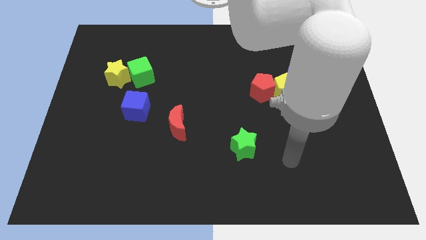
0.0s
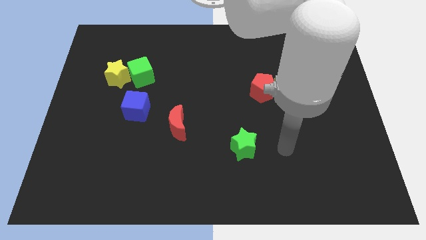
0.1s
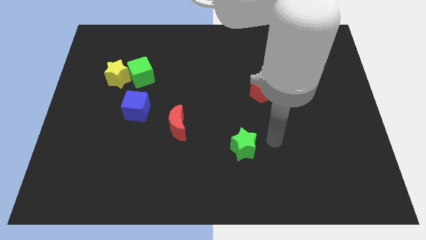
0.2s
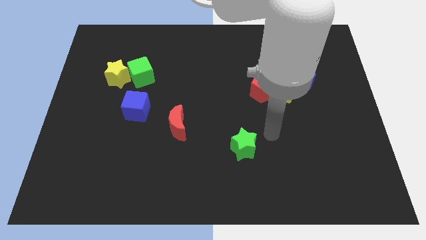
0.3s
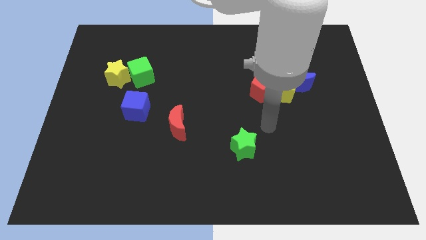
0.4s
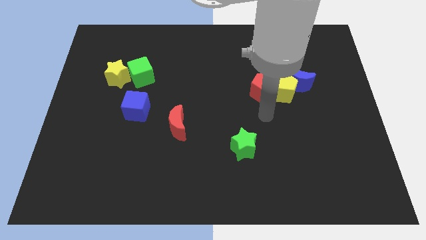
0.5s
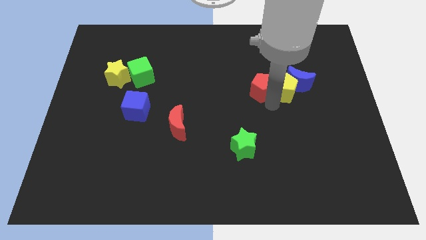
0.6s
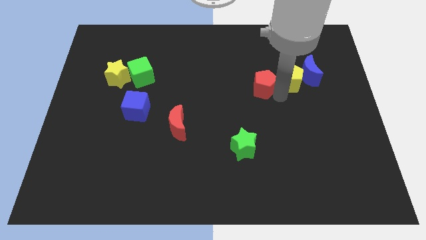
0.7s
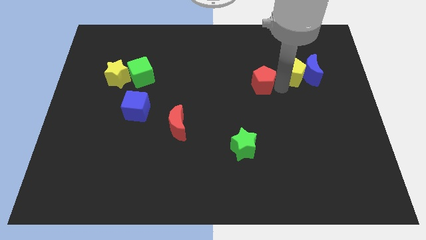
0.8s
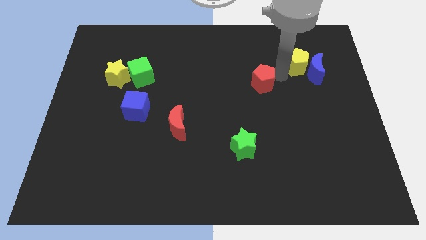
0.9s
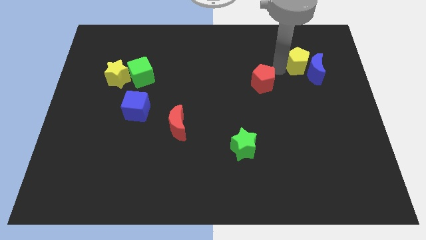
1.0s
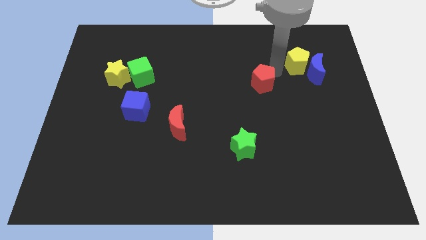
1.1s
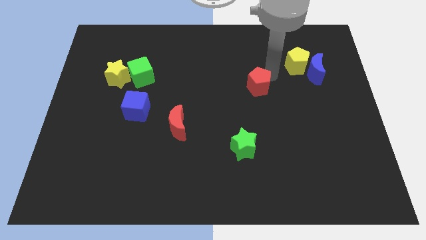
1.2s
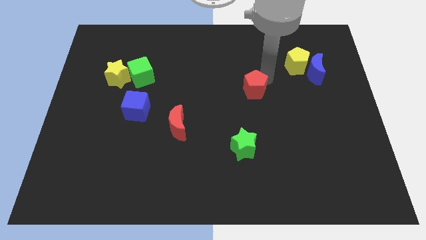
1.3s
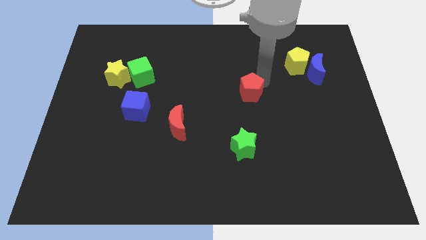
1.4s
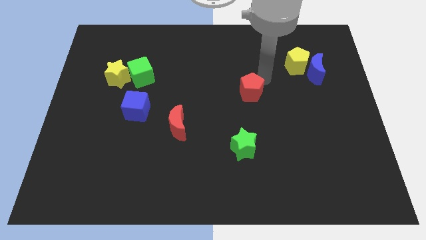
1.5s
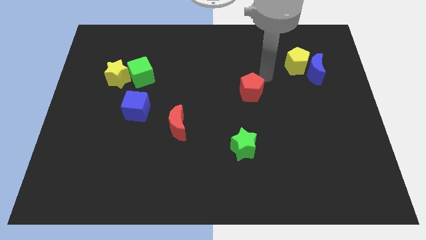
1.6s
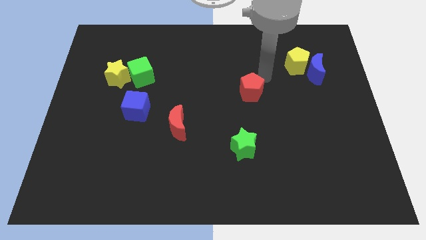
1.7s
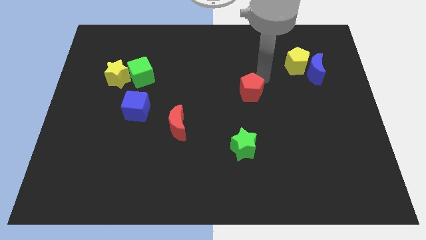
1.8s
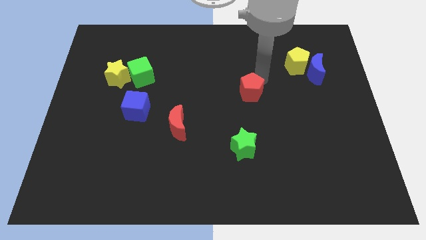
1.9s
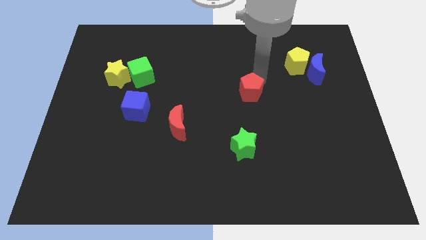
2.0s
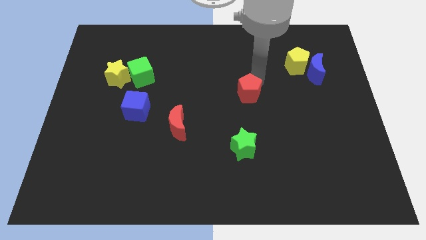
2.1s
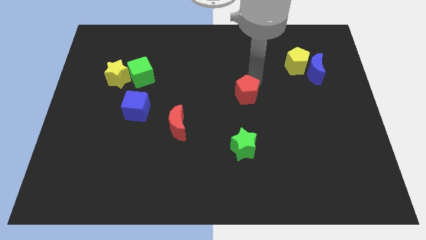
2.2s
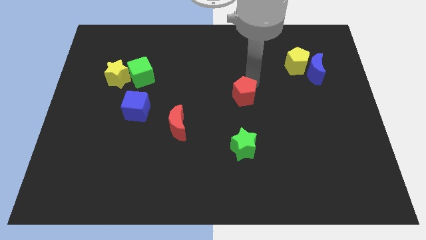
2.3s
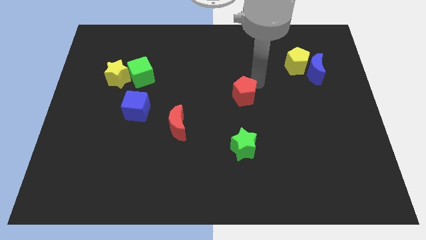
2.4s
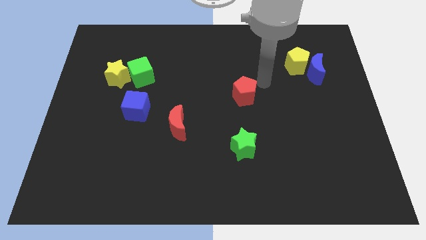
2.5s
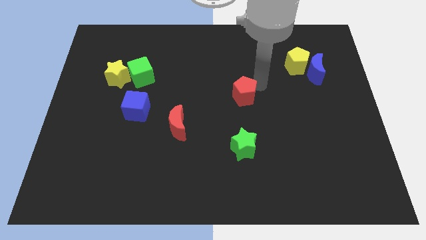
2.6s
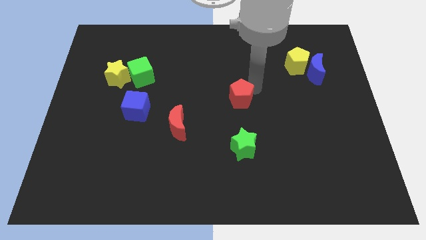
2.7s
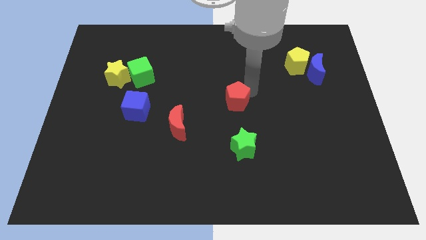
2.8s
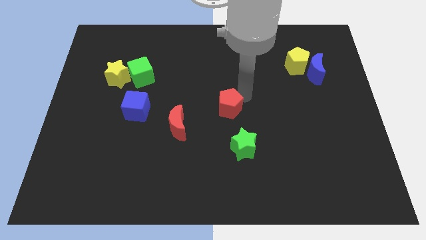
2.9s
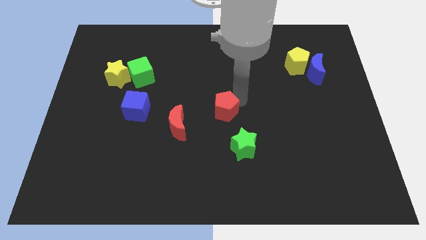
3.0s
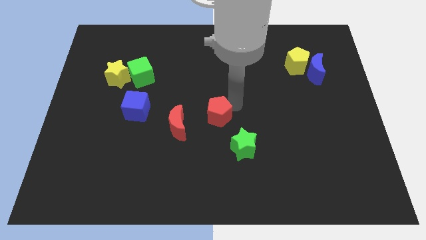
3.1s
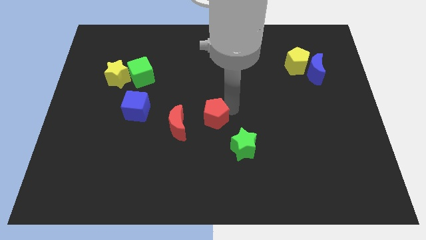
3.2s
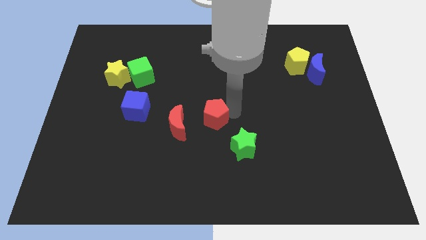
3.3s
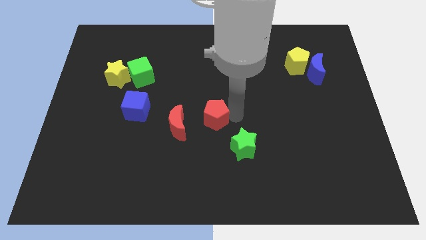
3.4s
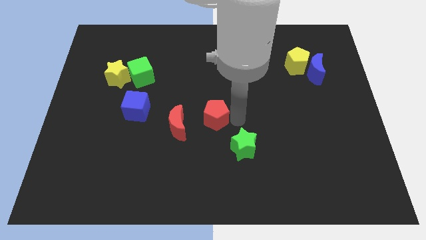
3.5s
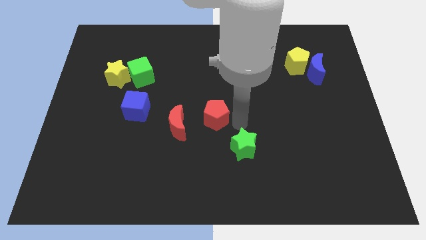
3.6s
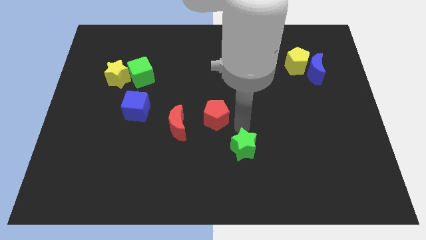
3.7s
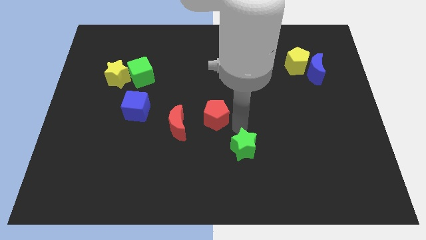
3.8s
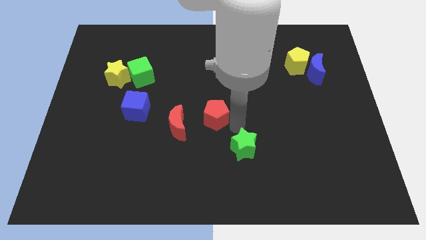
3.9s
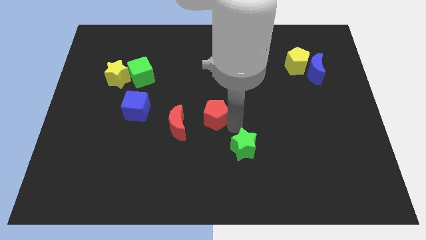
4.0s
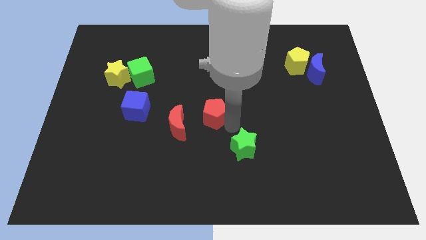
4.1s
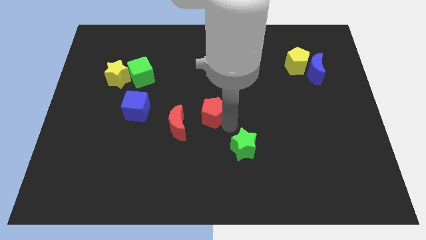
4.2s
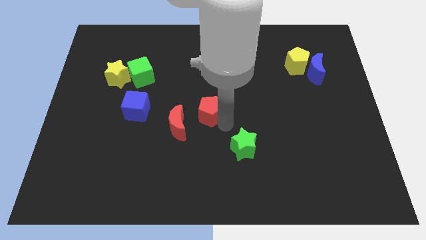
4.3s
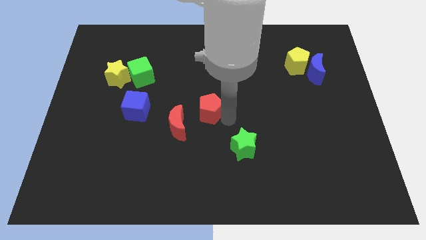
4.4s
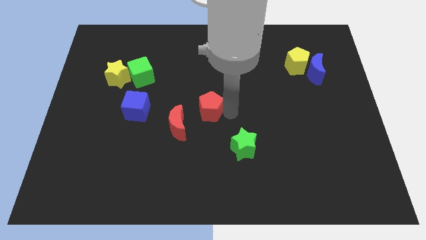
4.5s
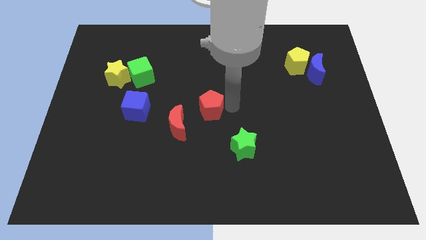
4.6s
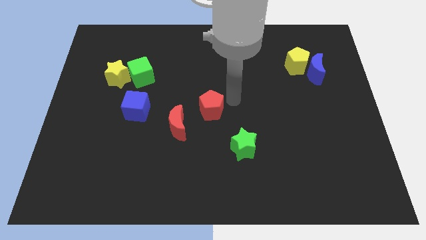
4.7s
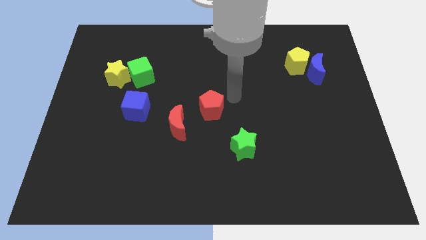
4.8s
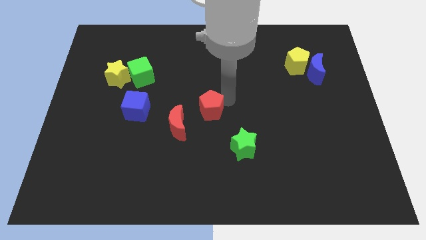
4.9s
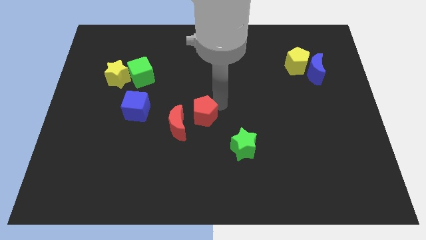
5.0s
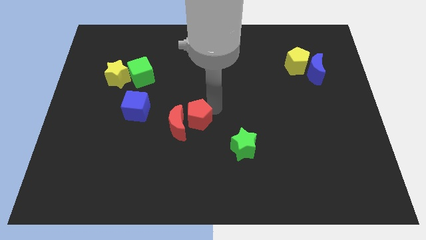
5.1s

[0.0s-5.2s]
slide the red pentagon to the red moon

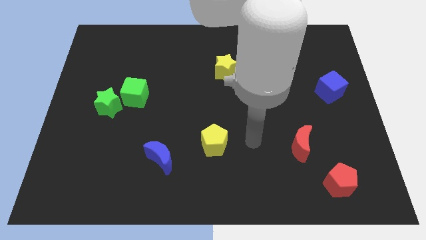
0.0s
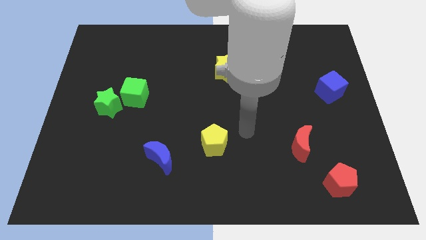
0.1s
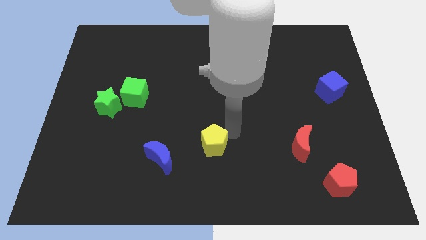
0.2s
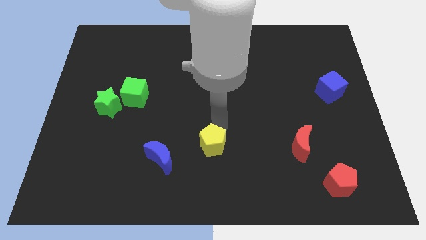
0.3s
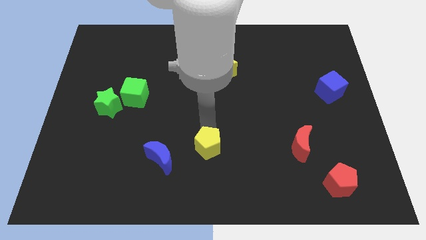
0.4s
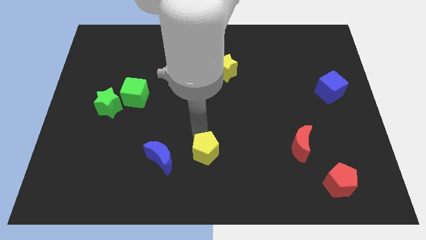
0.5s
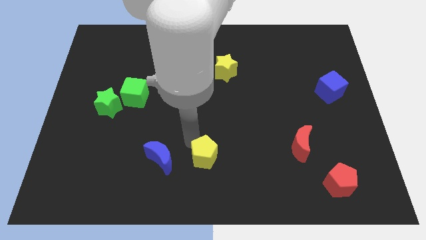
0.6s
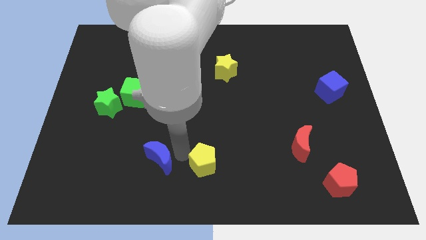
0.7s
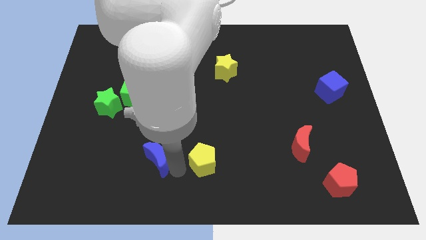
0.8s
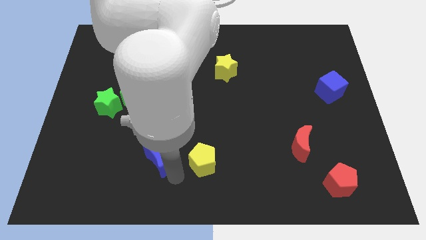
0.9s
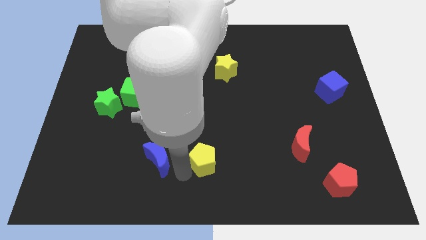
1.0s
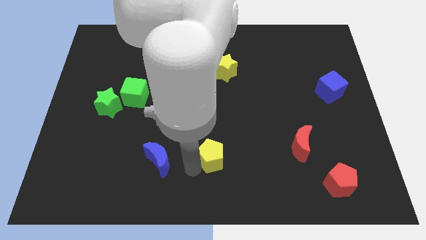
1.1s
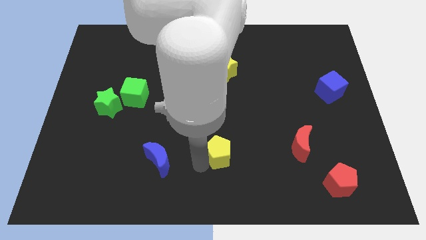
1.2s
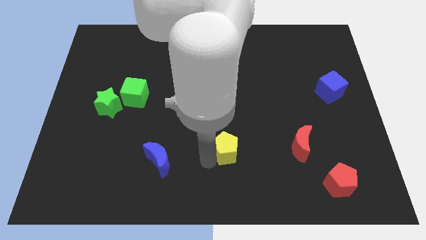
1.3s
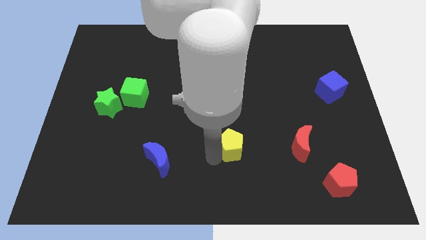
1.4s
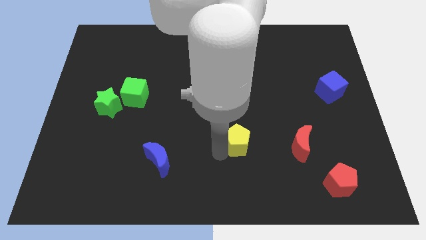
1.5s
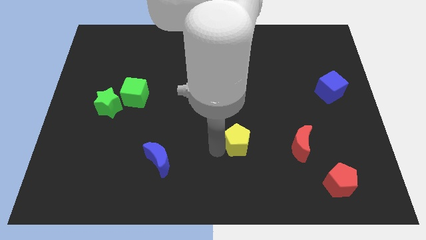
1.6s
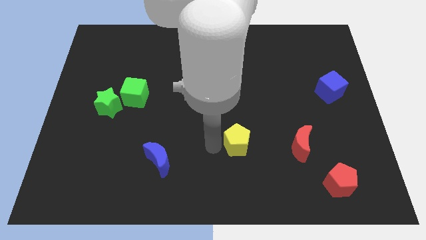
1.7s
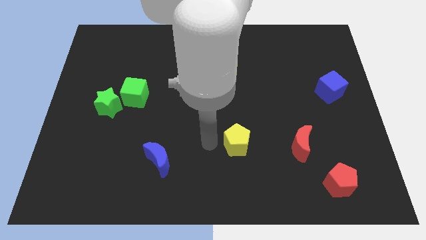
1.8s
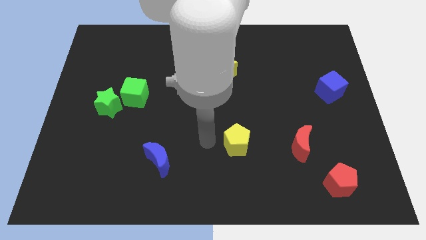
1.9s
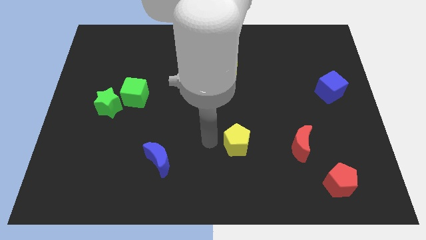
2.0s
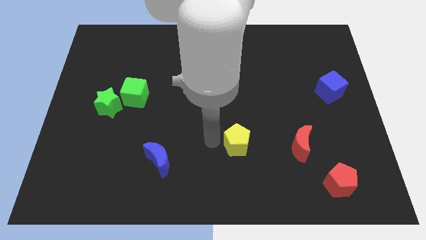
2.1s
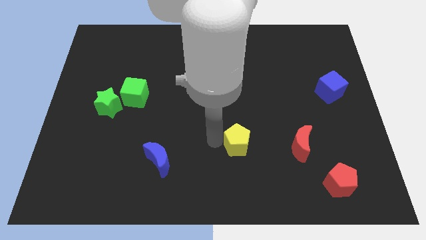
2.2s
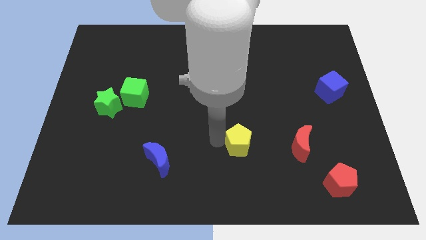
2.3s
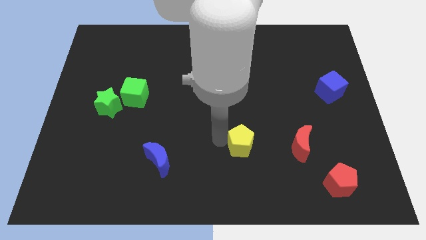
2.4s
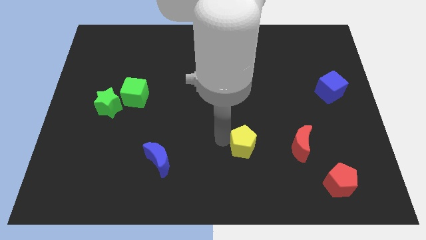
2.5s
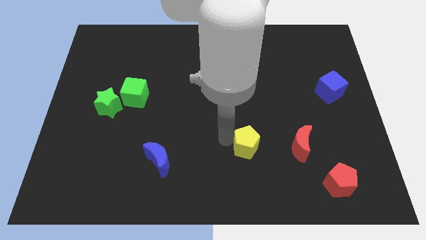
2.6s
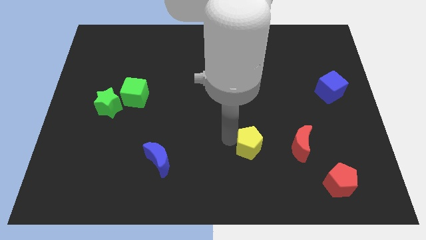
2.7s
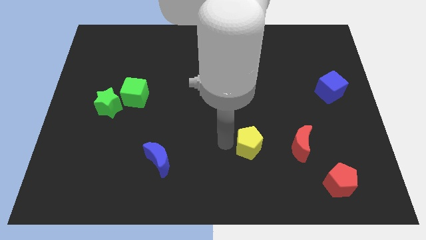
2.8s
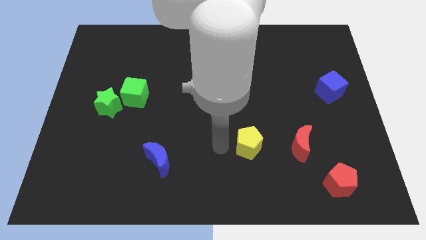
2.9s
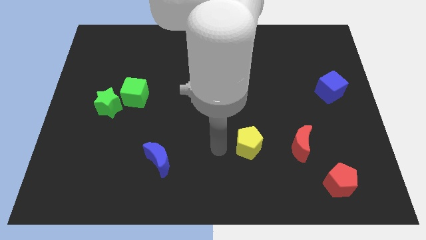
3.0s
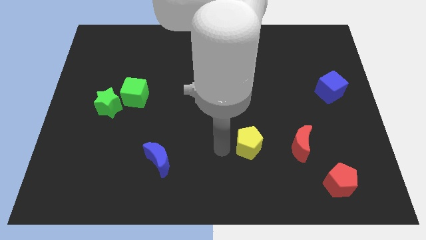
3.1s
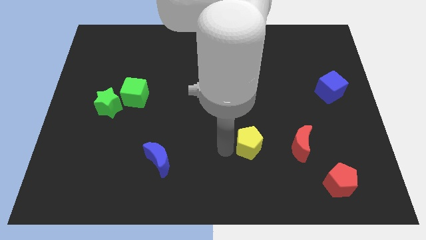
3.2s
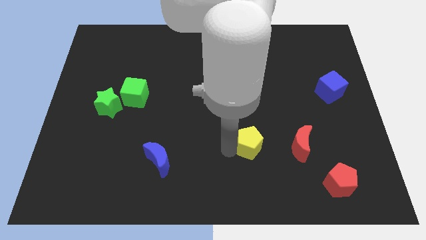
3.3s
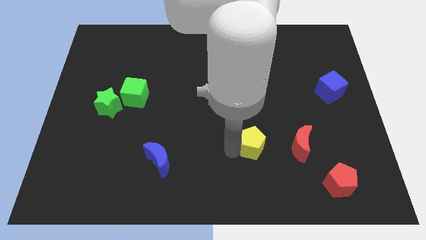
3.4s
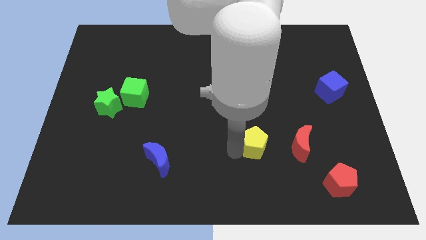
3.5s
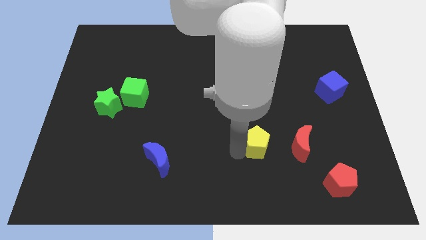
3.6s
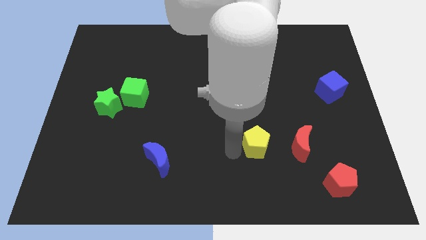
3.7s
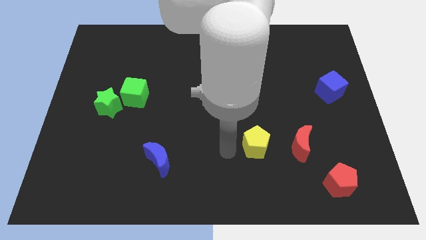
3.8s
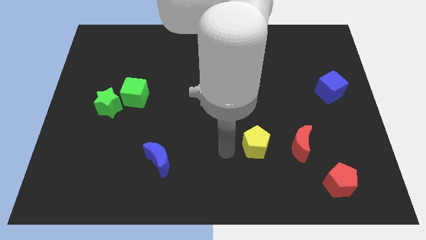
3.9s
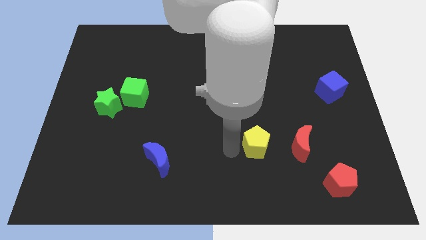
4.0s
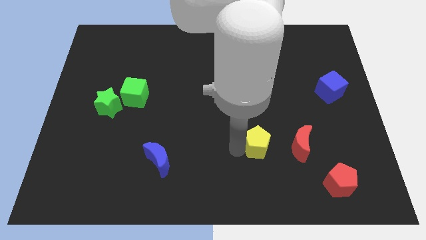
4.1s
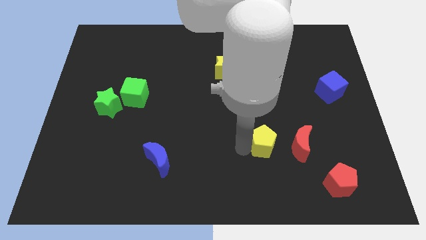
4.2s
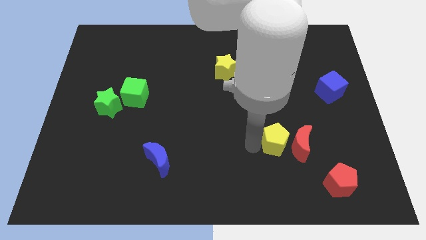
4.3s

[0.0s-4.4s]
put the yellow pentagon next to the red moon
